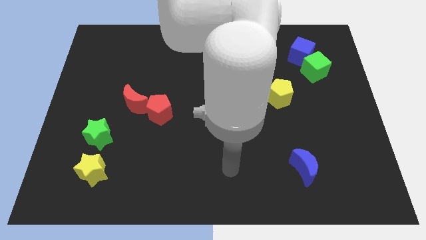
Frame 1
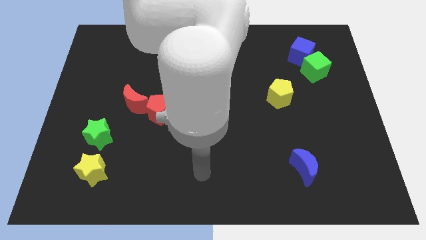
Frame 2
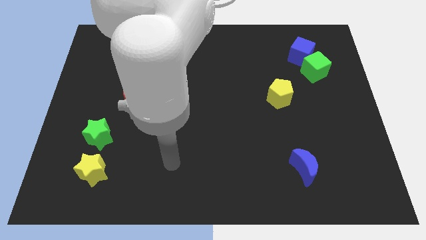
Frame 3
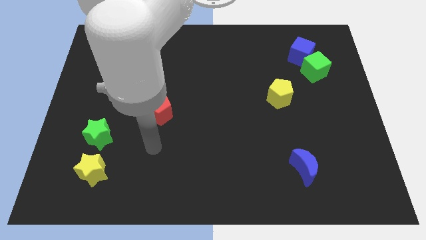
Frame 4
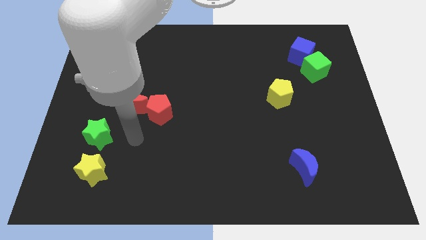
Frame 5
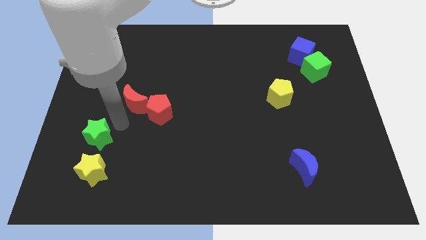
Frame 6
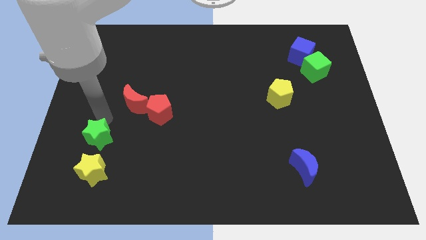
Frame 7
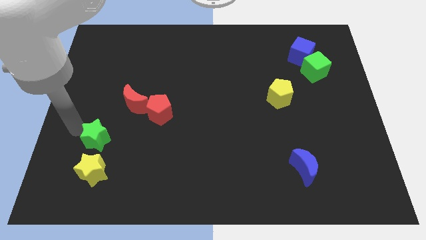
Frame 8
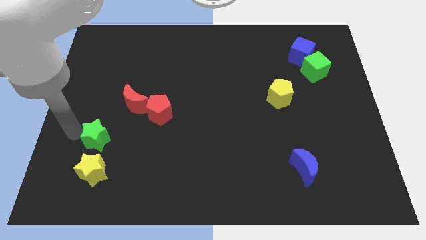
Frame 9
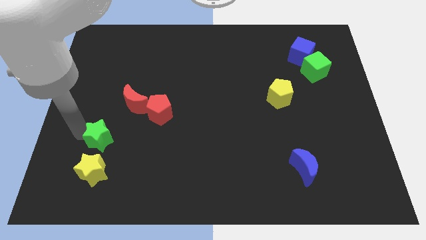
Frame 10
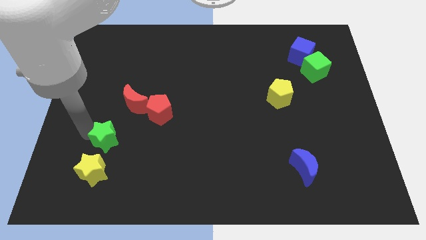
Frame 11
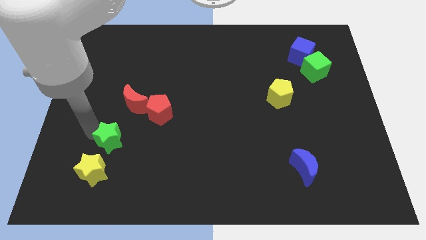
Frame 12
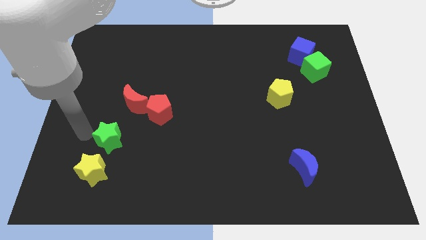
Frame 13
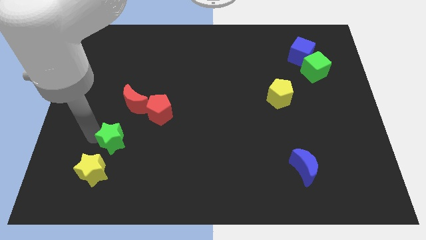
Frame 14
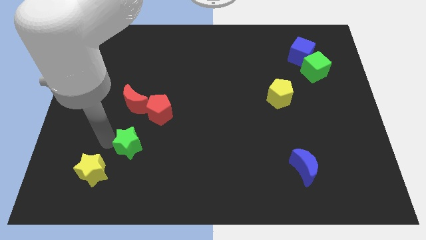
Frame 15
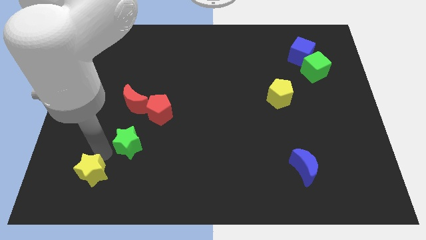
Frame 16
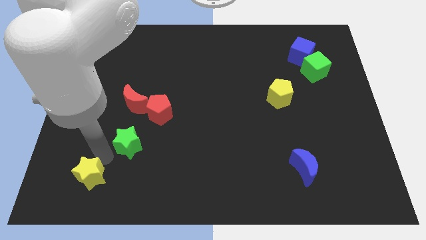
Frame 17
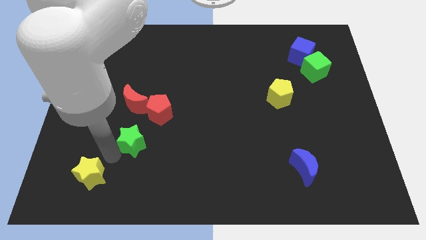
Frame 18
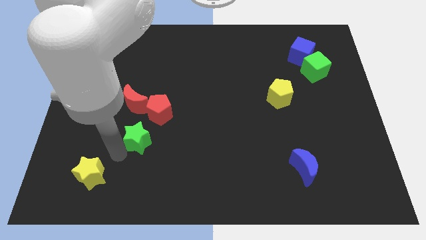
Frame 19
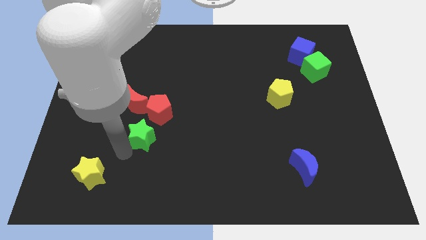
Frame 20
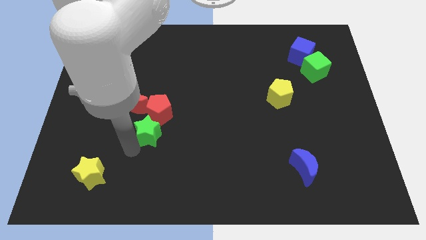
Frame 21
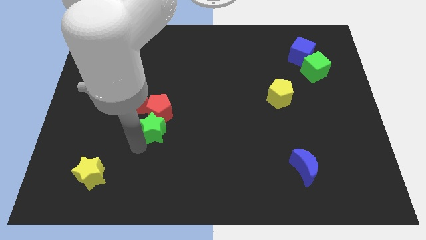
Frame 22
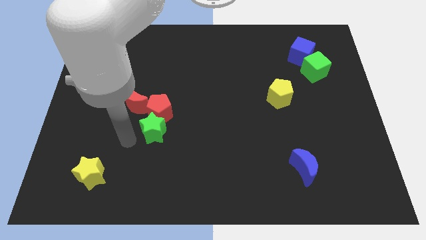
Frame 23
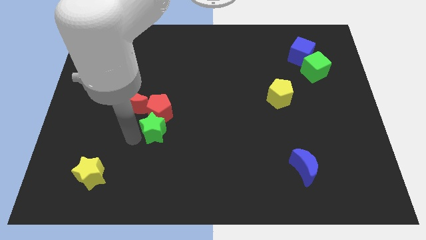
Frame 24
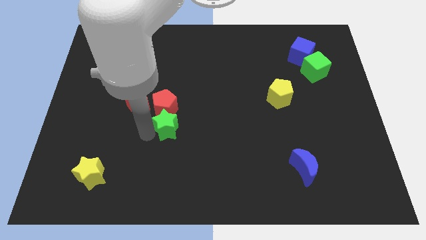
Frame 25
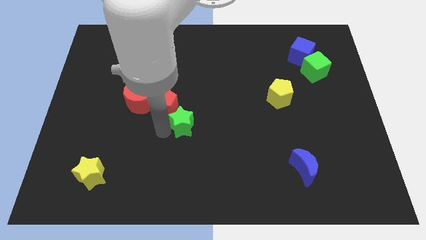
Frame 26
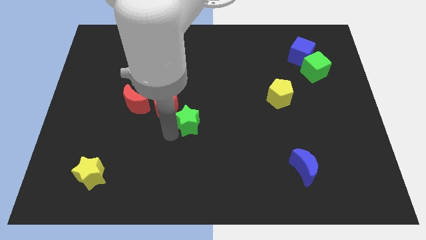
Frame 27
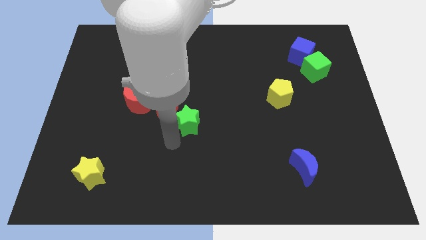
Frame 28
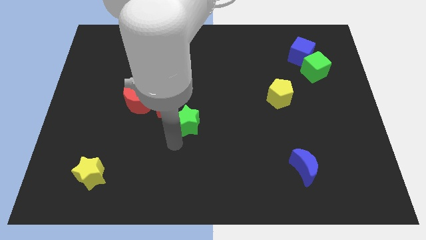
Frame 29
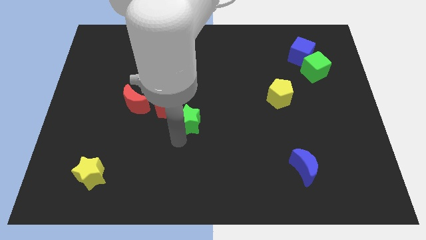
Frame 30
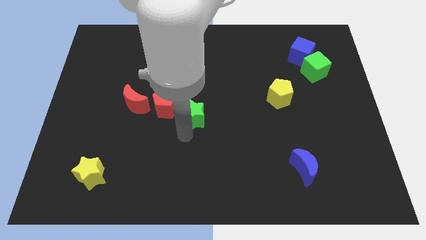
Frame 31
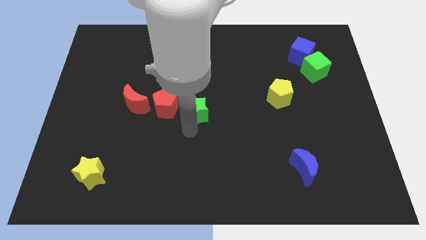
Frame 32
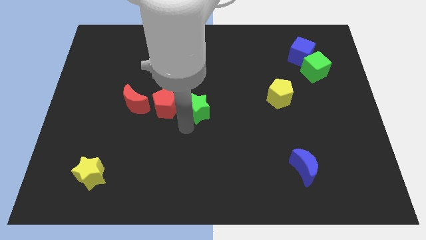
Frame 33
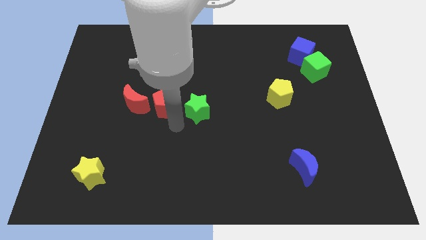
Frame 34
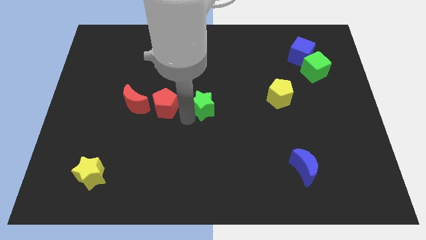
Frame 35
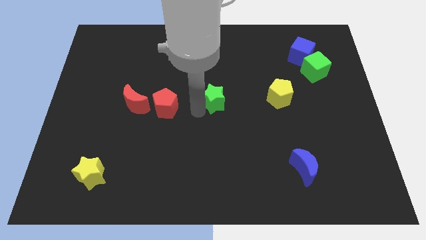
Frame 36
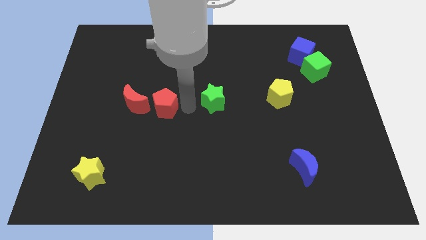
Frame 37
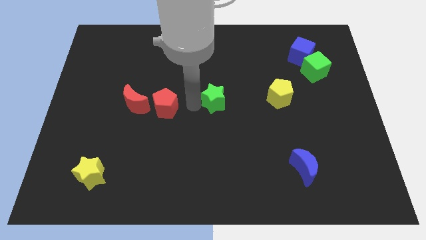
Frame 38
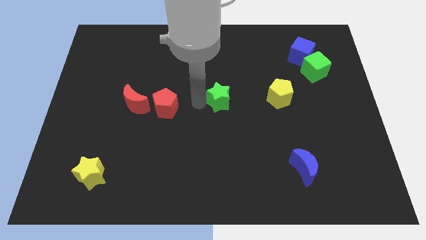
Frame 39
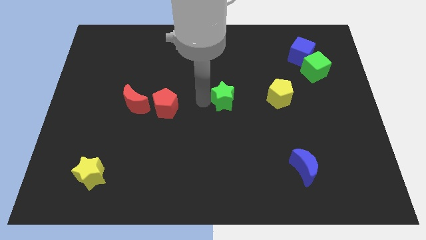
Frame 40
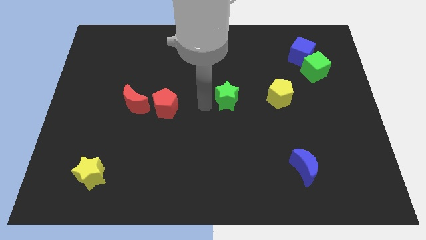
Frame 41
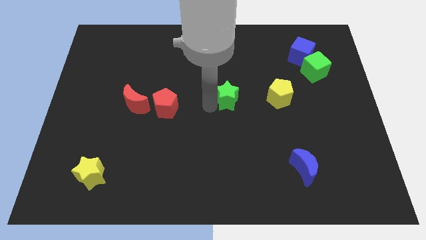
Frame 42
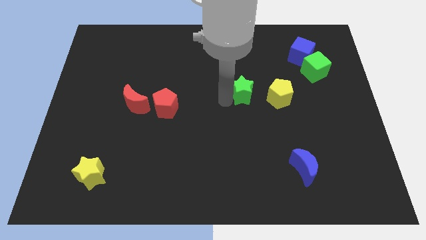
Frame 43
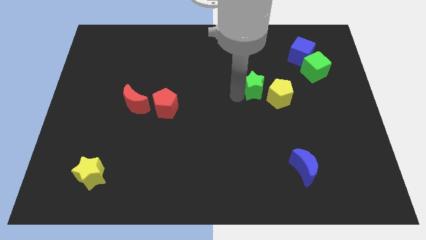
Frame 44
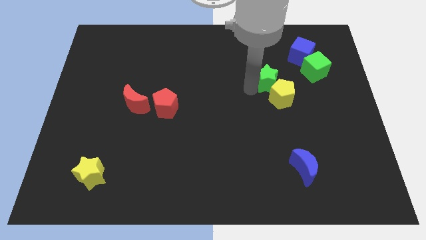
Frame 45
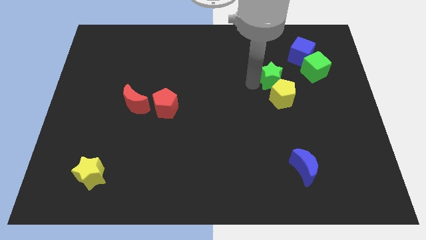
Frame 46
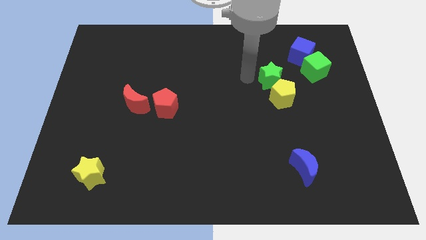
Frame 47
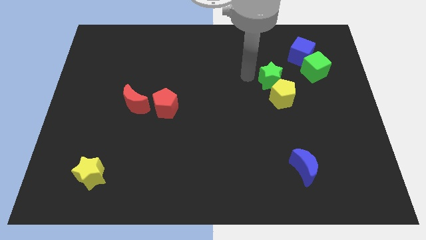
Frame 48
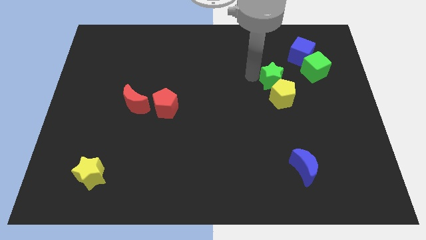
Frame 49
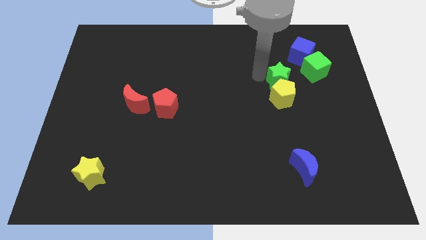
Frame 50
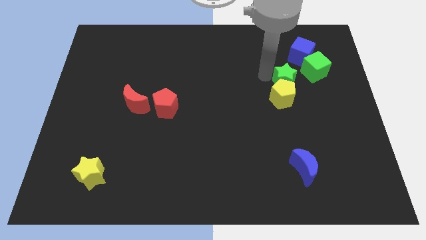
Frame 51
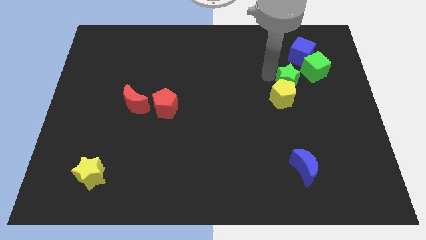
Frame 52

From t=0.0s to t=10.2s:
push the green star to the bottom side of the blue cube

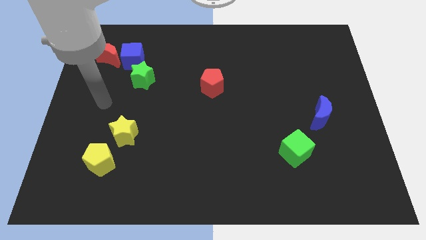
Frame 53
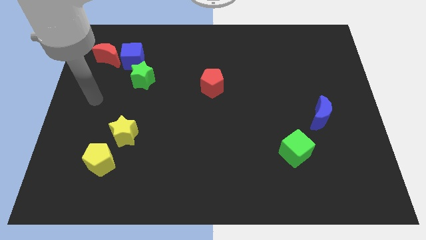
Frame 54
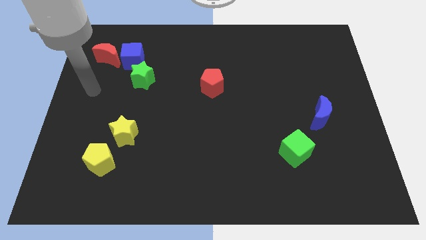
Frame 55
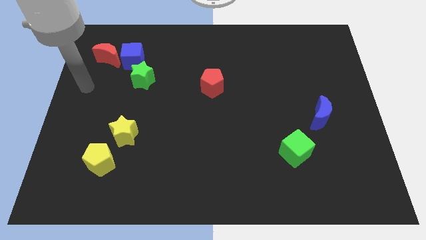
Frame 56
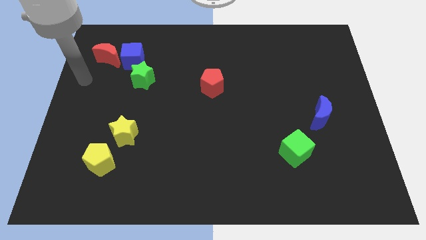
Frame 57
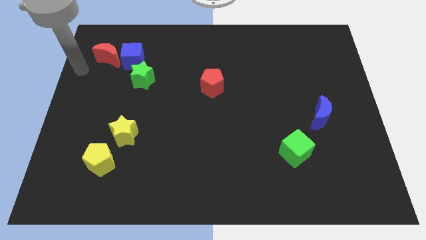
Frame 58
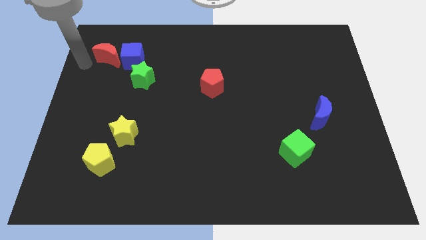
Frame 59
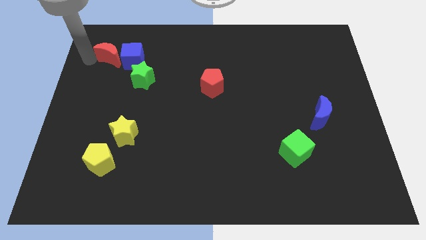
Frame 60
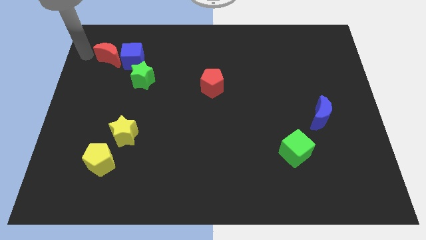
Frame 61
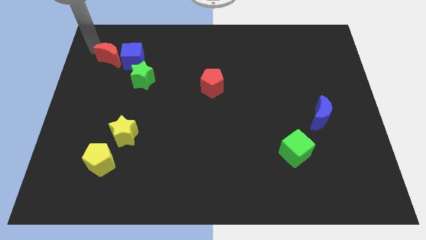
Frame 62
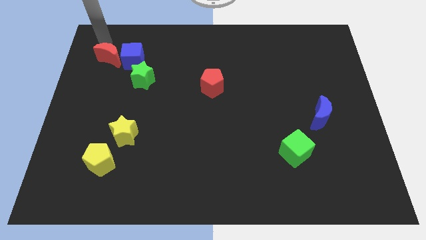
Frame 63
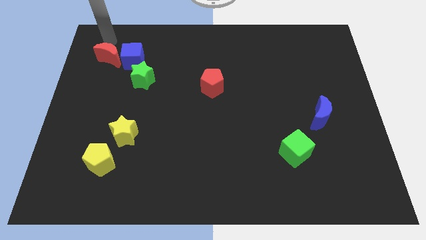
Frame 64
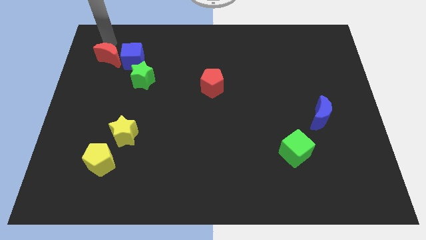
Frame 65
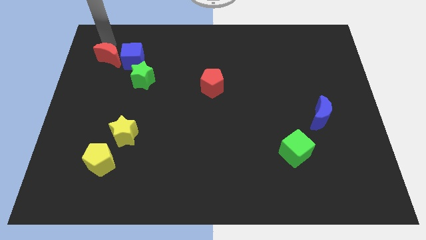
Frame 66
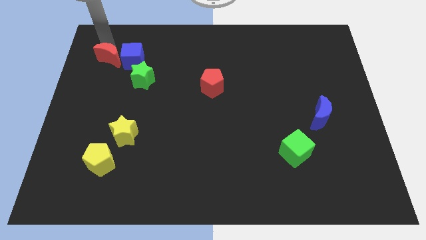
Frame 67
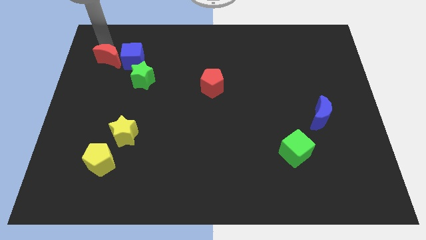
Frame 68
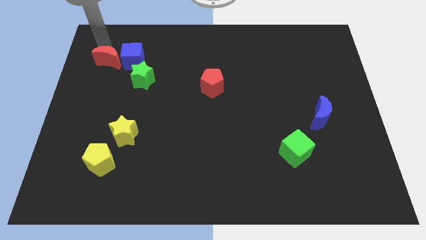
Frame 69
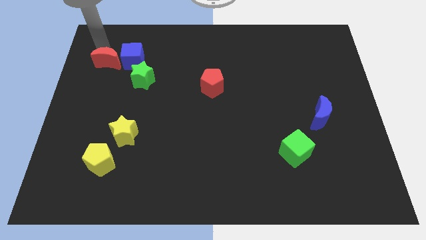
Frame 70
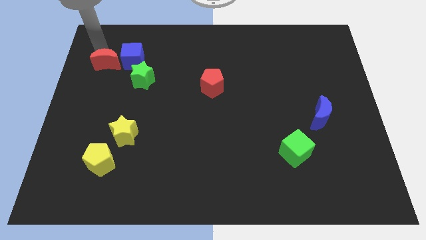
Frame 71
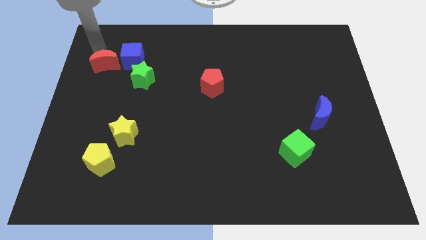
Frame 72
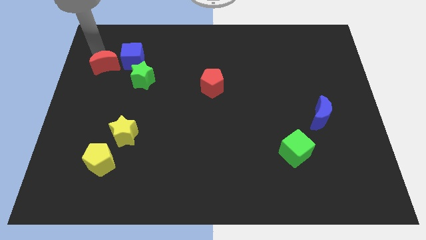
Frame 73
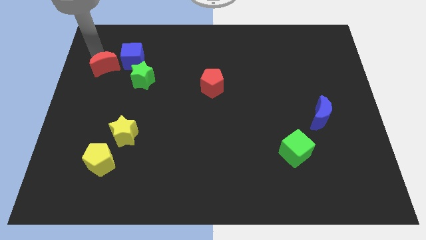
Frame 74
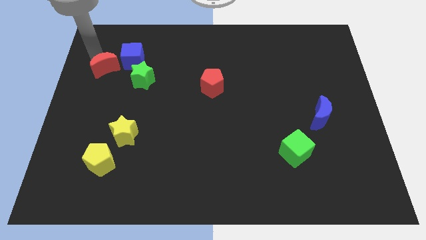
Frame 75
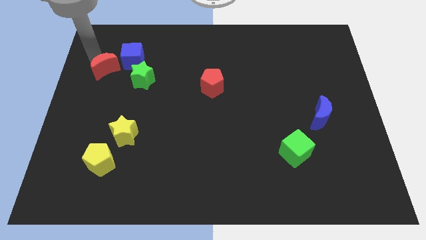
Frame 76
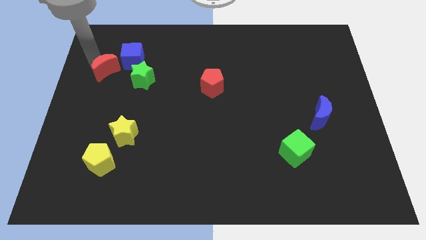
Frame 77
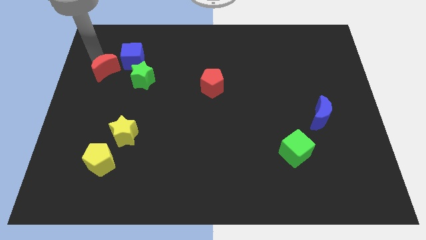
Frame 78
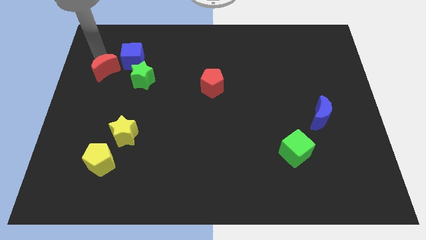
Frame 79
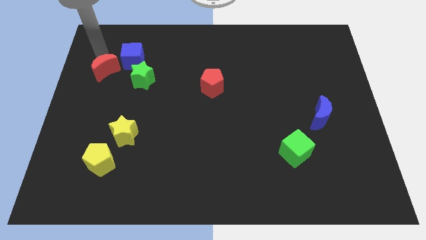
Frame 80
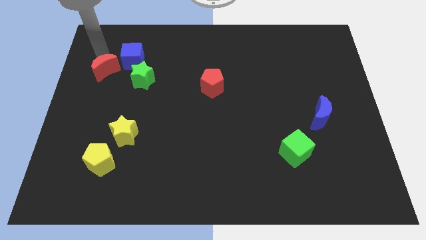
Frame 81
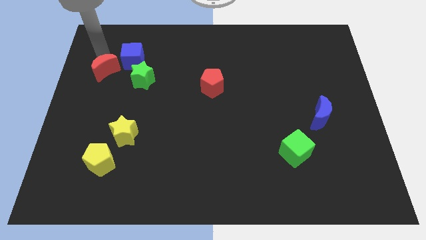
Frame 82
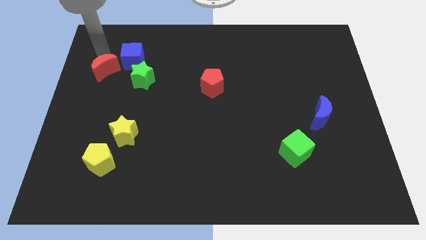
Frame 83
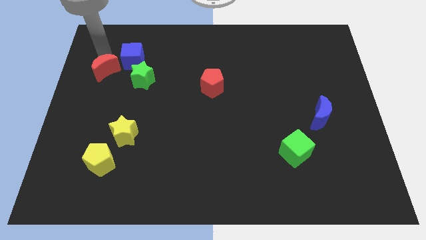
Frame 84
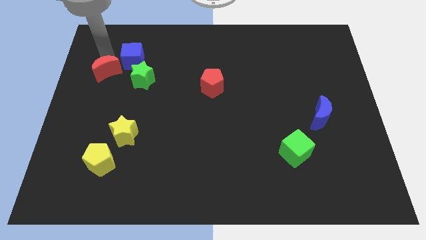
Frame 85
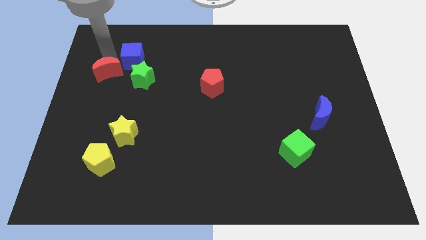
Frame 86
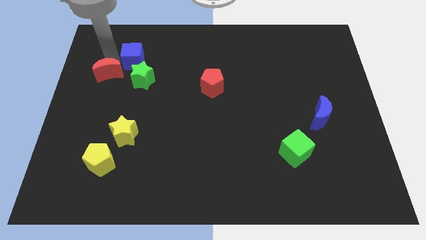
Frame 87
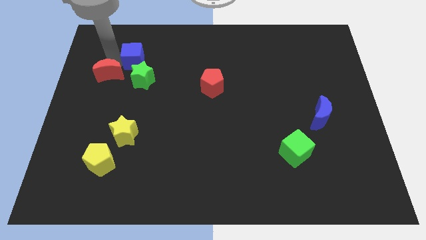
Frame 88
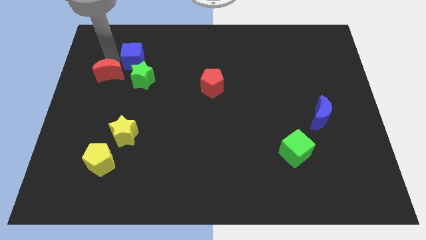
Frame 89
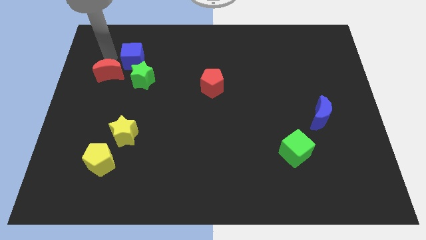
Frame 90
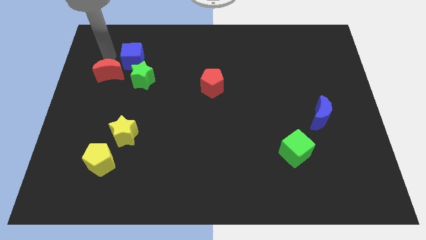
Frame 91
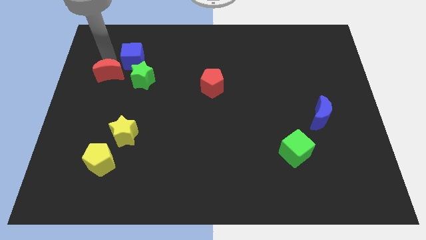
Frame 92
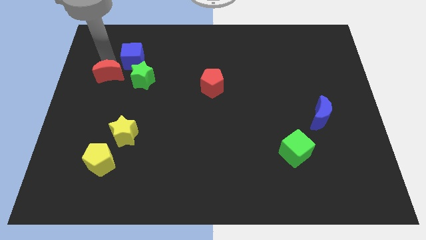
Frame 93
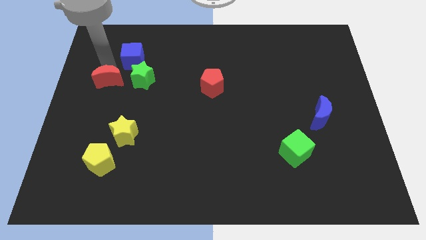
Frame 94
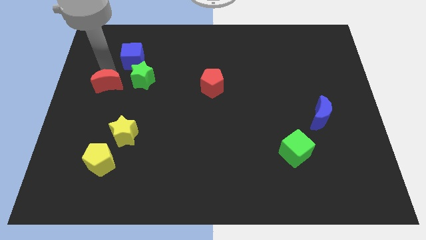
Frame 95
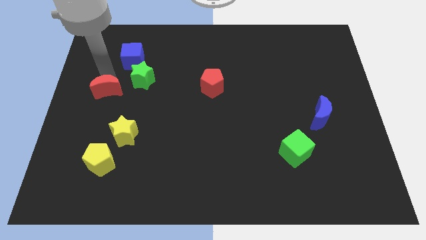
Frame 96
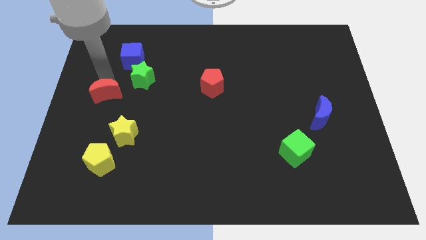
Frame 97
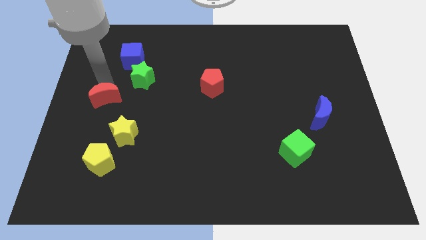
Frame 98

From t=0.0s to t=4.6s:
move the red moon to the top left of the yellow star
